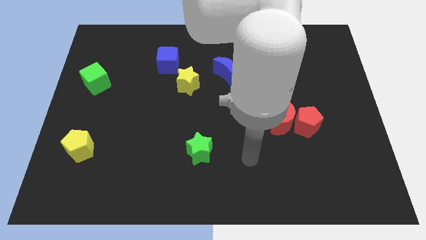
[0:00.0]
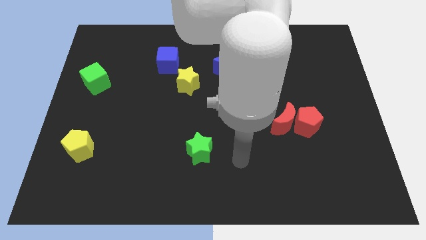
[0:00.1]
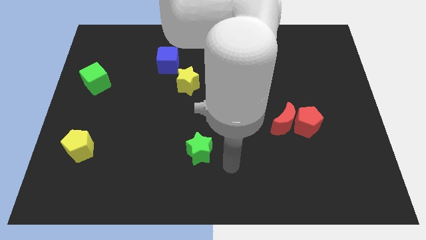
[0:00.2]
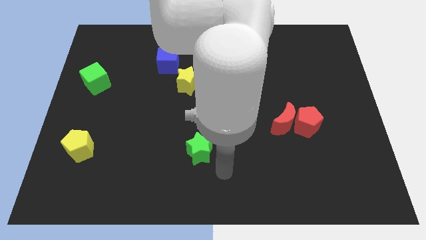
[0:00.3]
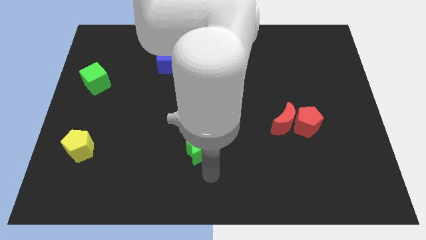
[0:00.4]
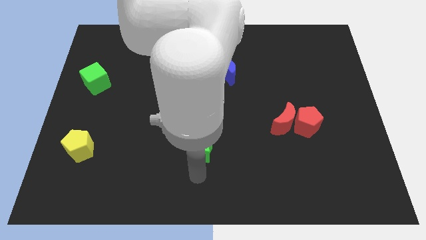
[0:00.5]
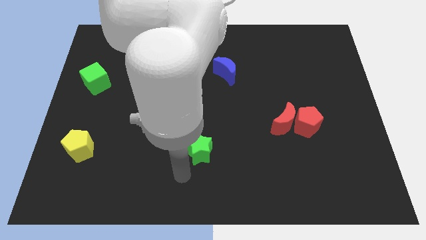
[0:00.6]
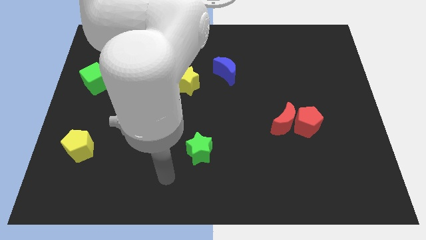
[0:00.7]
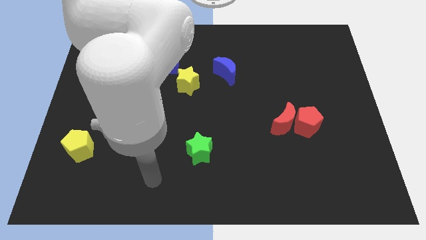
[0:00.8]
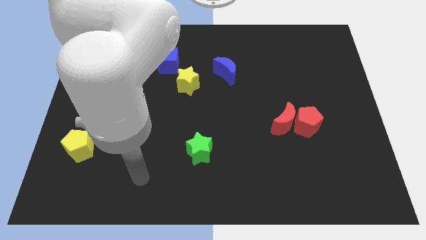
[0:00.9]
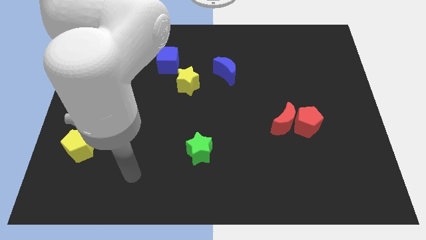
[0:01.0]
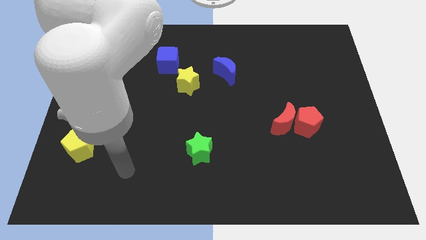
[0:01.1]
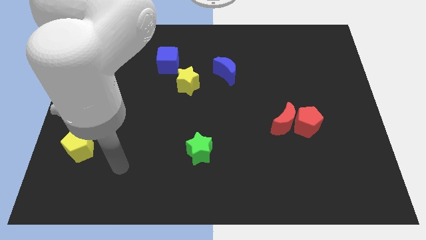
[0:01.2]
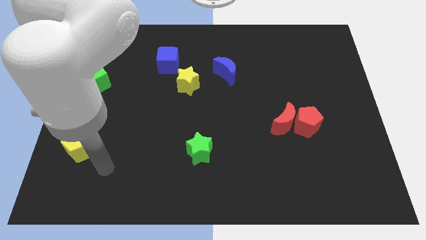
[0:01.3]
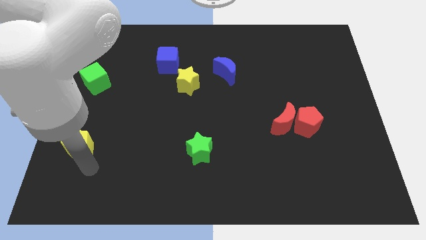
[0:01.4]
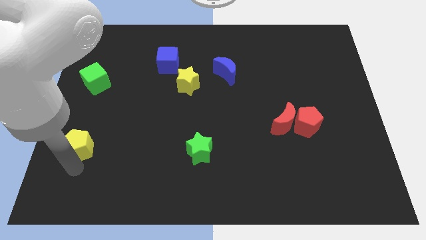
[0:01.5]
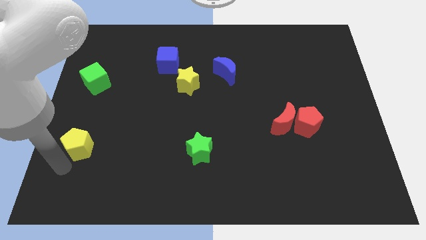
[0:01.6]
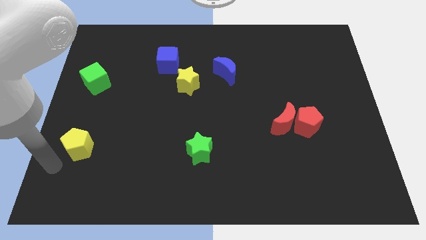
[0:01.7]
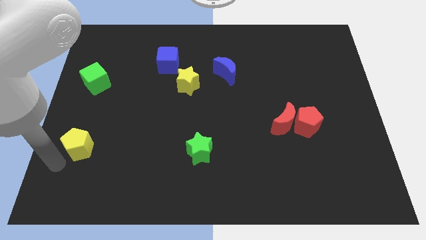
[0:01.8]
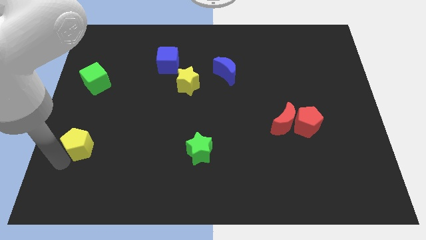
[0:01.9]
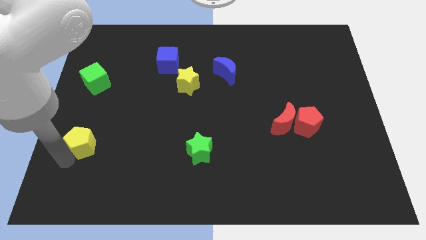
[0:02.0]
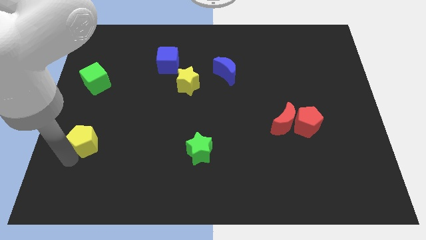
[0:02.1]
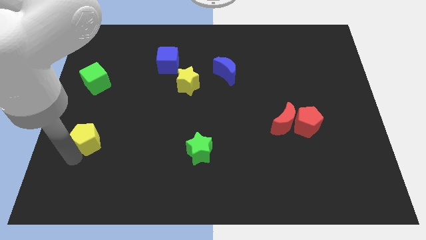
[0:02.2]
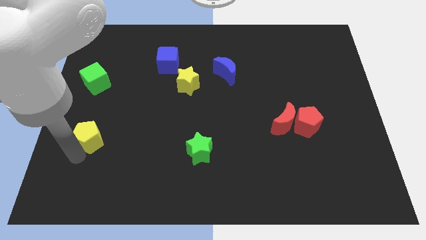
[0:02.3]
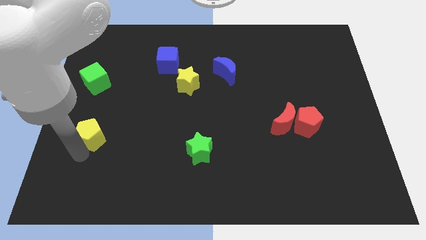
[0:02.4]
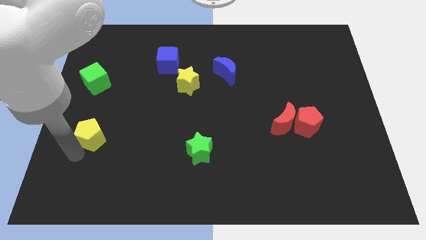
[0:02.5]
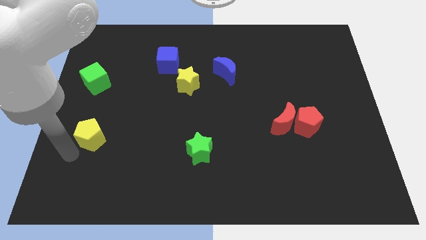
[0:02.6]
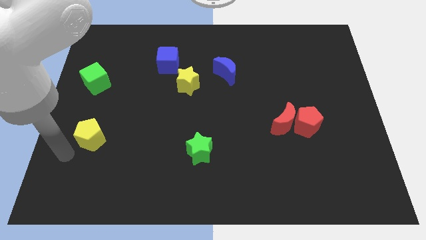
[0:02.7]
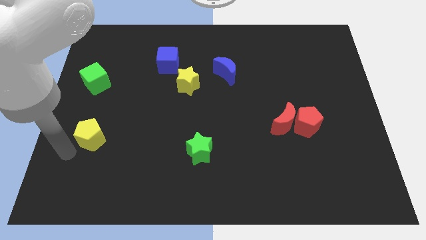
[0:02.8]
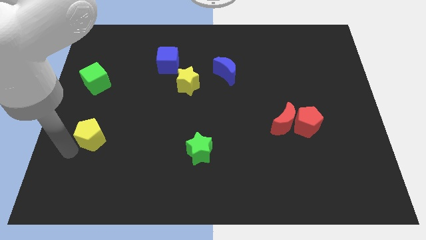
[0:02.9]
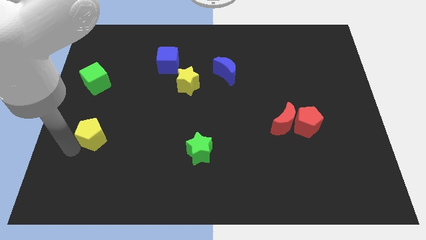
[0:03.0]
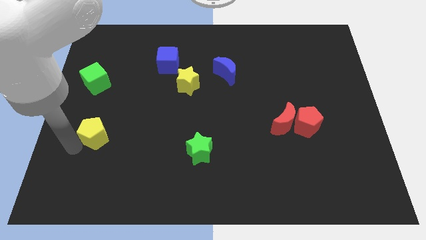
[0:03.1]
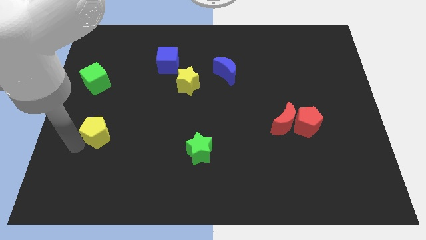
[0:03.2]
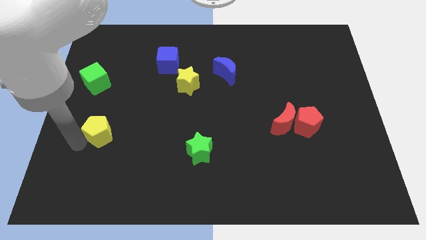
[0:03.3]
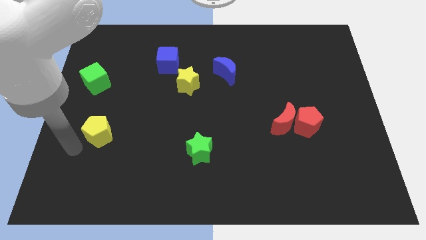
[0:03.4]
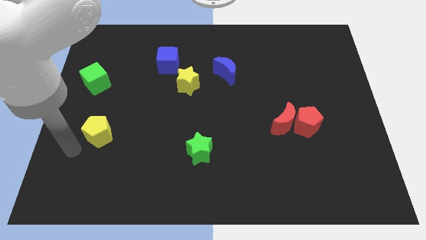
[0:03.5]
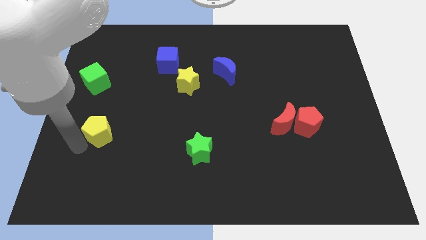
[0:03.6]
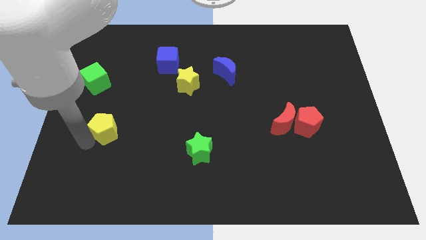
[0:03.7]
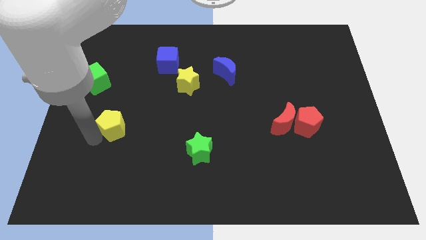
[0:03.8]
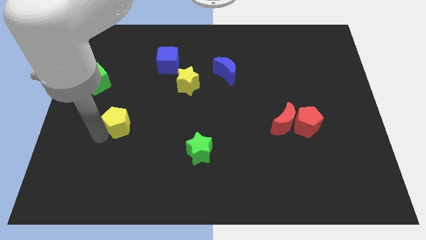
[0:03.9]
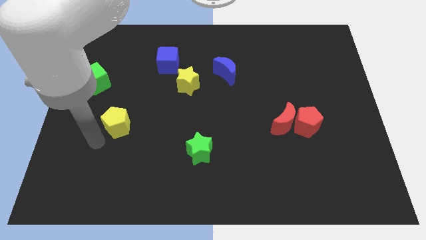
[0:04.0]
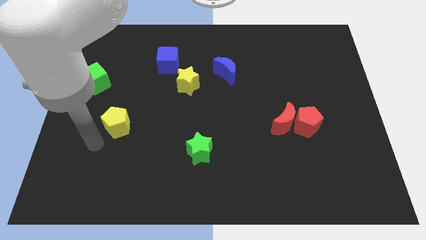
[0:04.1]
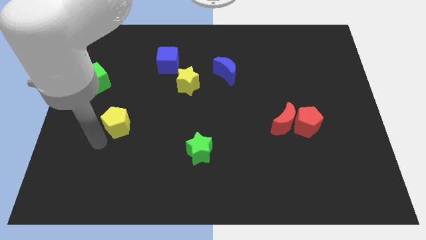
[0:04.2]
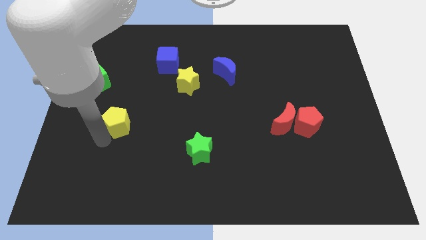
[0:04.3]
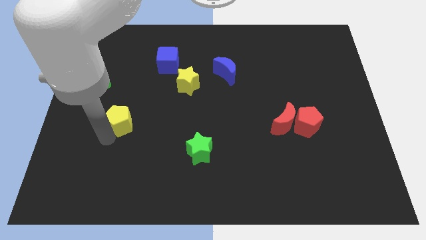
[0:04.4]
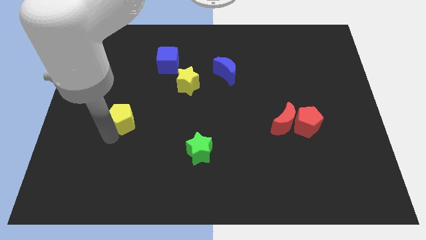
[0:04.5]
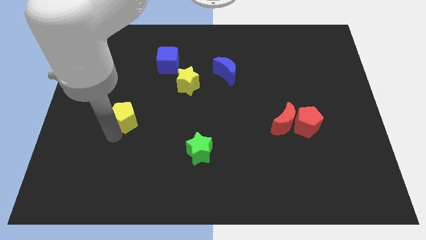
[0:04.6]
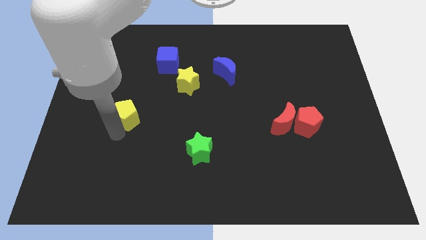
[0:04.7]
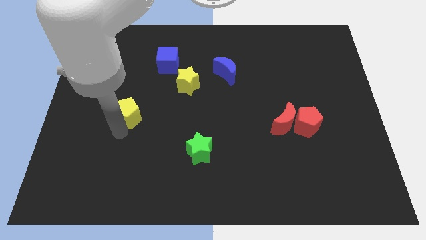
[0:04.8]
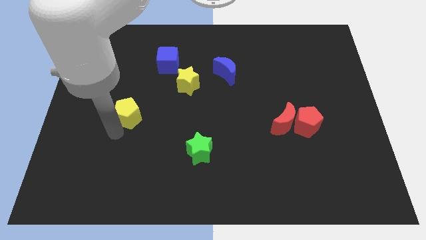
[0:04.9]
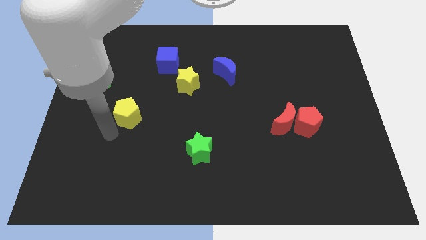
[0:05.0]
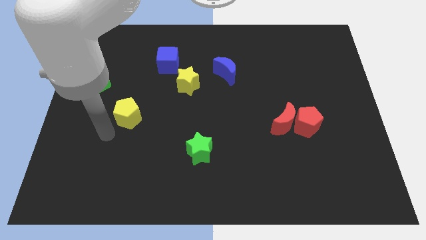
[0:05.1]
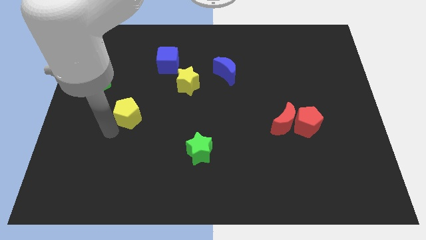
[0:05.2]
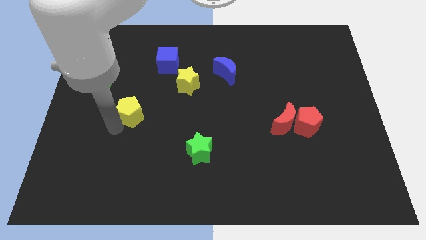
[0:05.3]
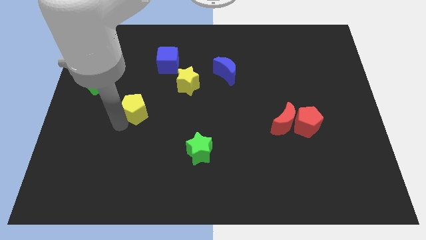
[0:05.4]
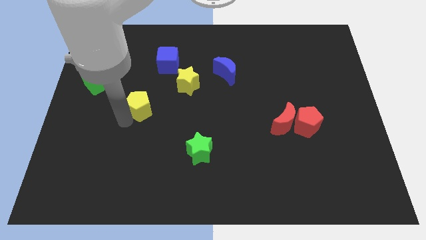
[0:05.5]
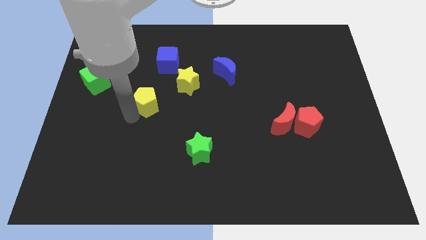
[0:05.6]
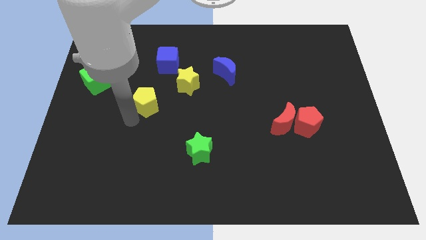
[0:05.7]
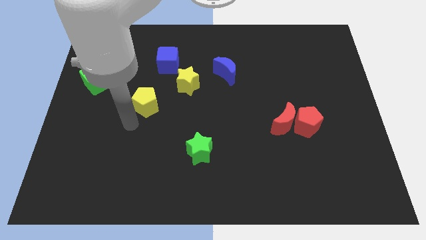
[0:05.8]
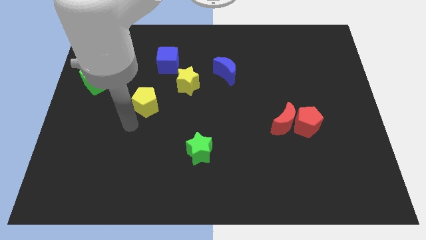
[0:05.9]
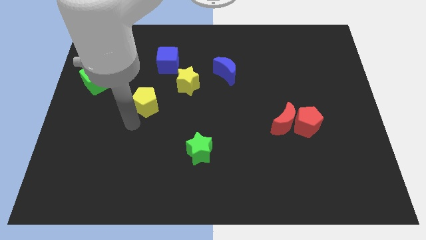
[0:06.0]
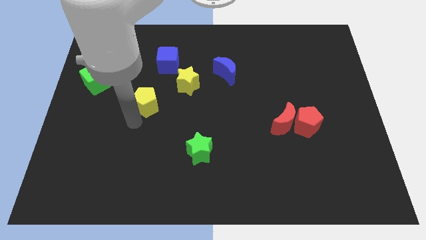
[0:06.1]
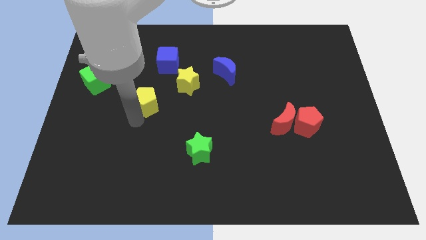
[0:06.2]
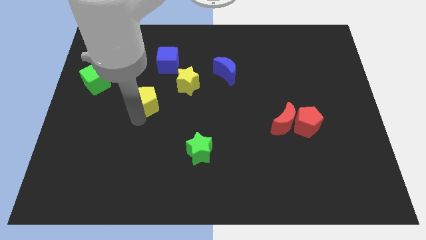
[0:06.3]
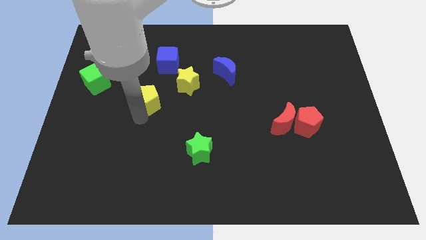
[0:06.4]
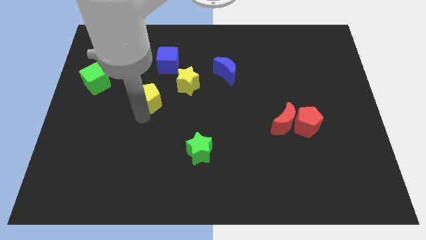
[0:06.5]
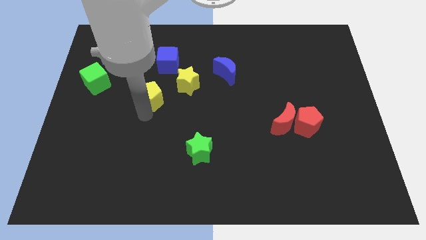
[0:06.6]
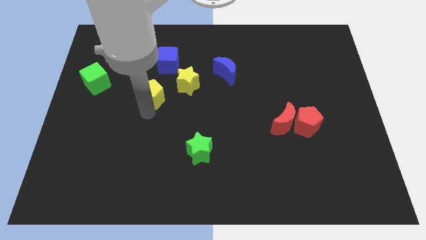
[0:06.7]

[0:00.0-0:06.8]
push the yellow pentagon diagonally up and to the right

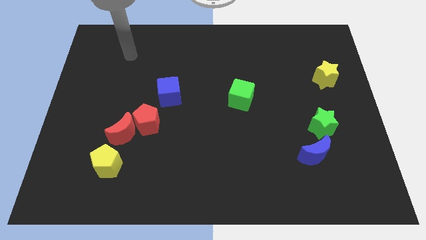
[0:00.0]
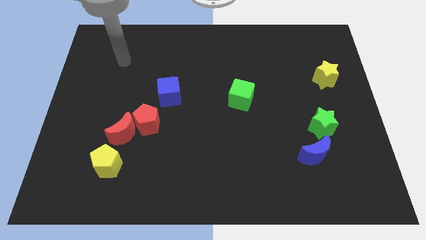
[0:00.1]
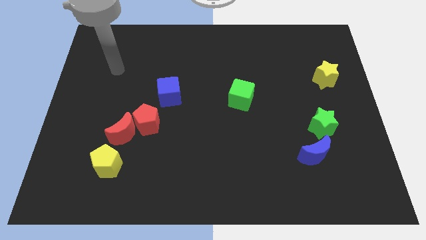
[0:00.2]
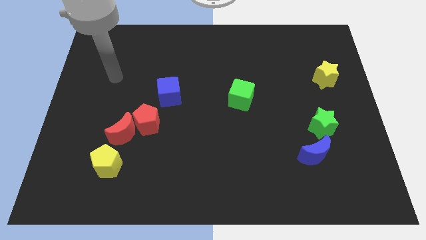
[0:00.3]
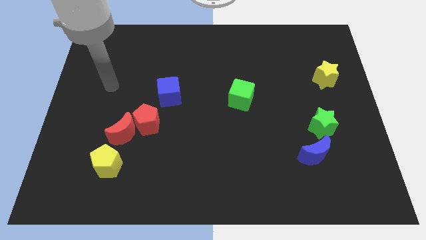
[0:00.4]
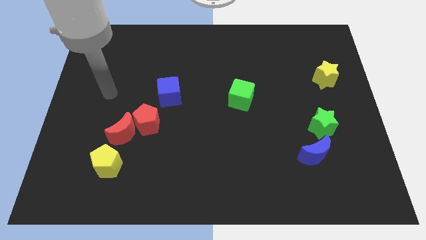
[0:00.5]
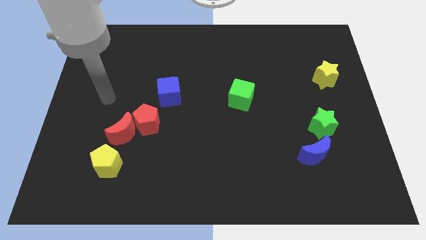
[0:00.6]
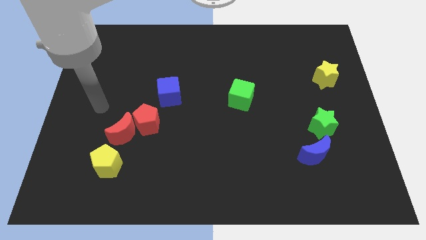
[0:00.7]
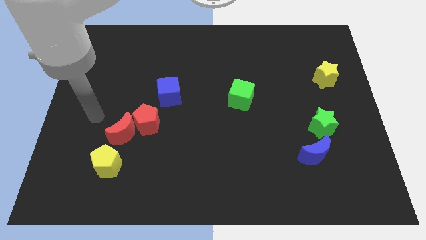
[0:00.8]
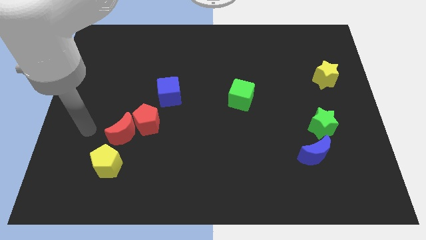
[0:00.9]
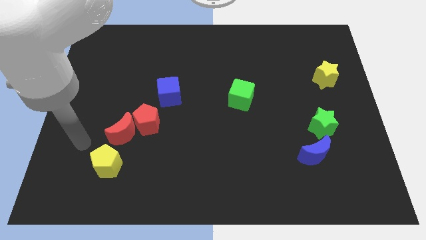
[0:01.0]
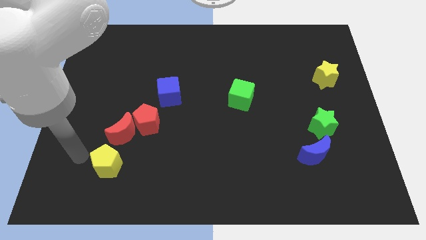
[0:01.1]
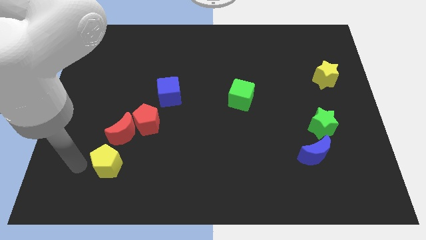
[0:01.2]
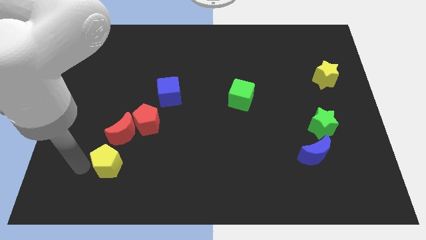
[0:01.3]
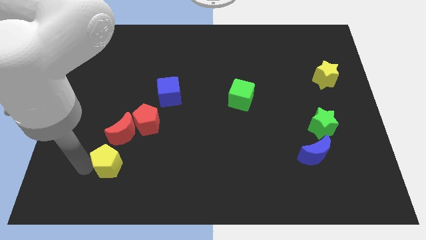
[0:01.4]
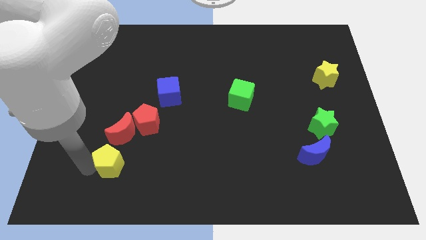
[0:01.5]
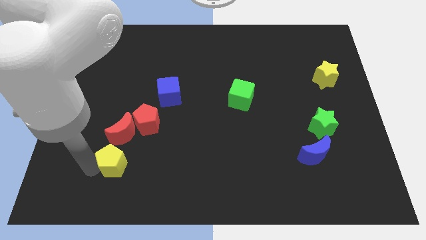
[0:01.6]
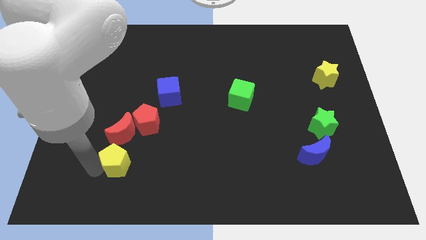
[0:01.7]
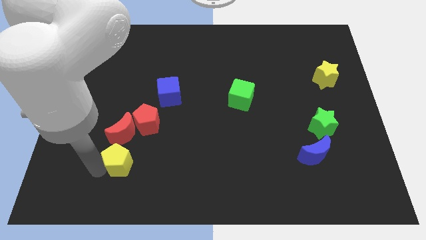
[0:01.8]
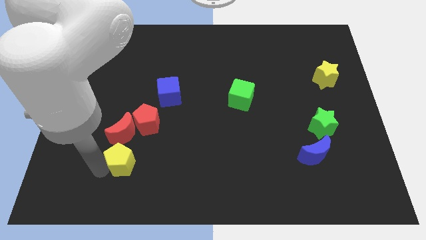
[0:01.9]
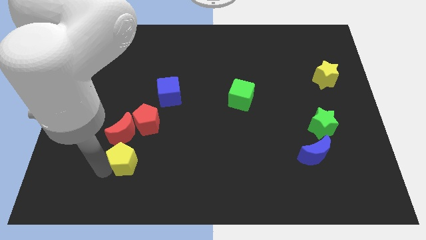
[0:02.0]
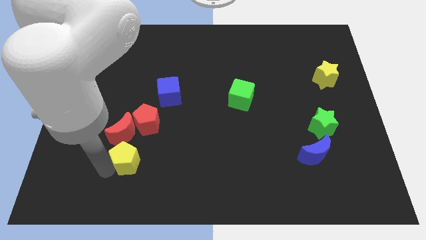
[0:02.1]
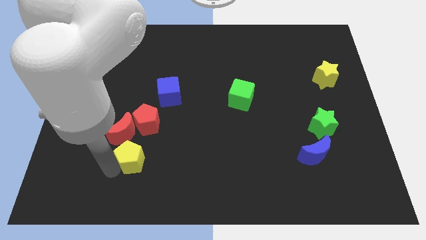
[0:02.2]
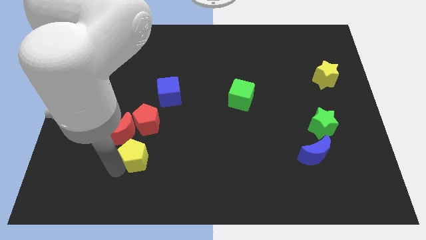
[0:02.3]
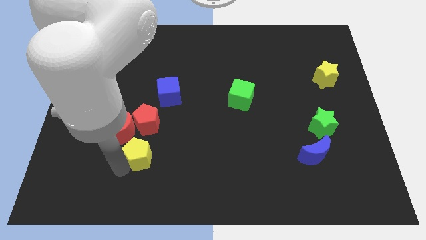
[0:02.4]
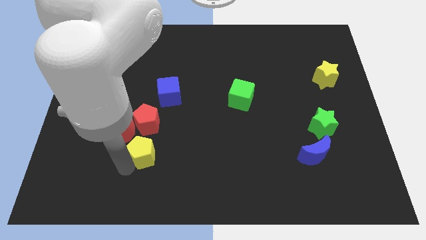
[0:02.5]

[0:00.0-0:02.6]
push the yellow pentagon right a bit
